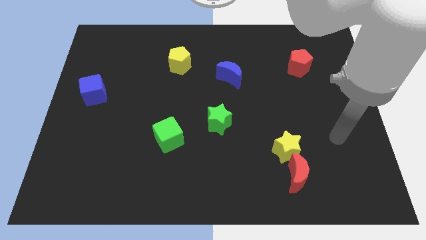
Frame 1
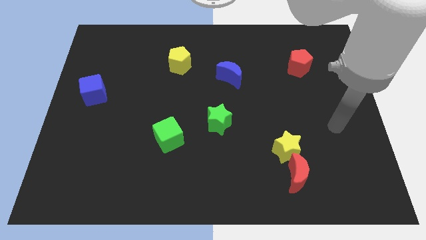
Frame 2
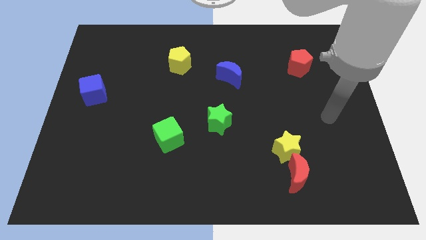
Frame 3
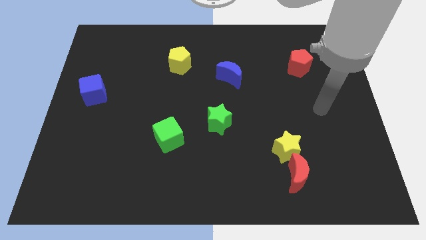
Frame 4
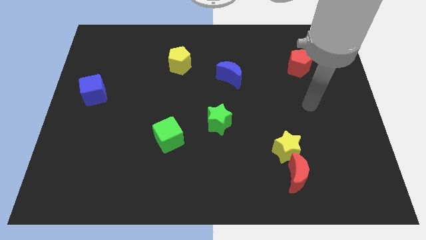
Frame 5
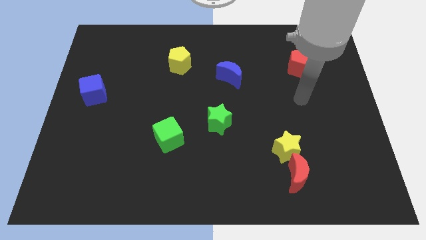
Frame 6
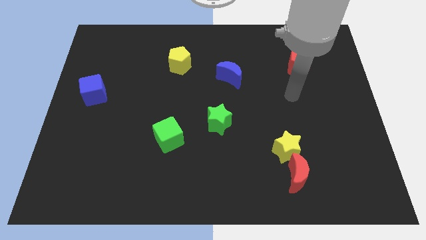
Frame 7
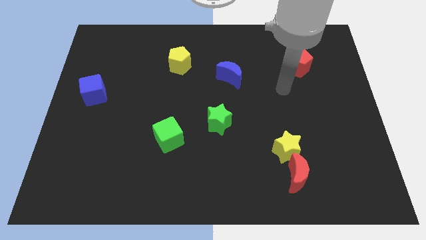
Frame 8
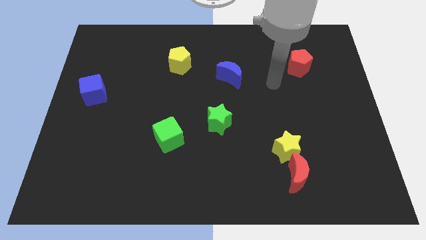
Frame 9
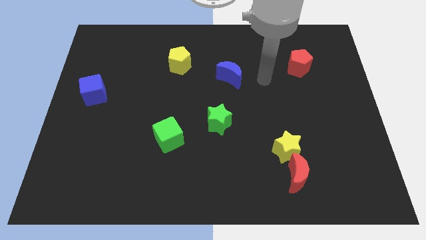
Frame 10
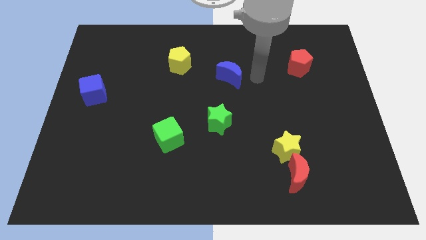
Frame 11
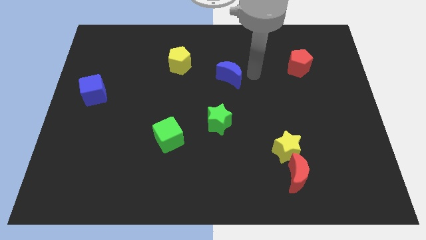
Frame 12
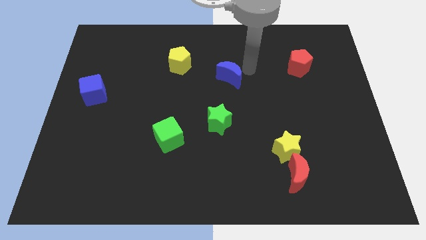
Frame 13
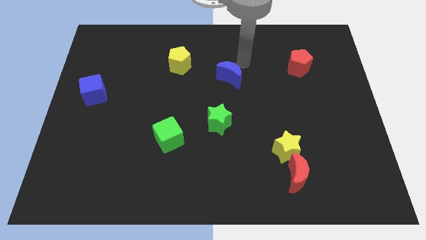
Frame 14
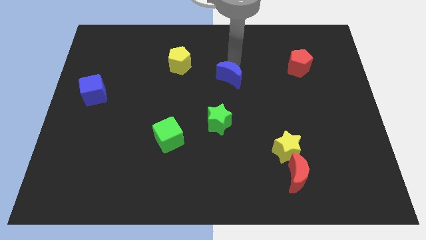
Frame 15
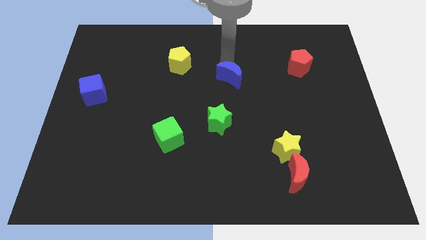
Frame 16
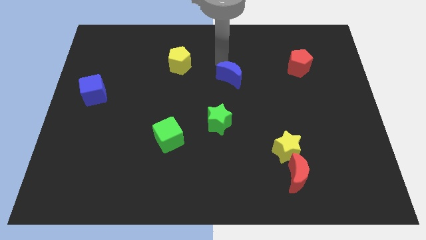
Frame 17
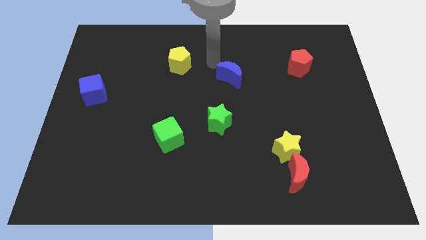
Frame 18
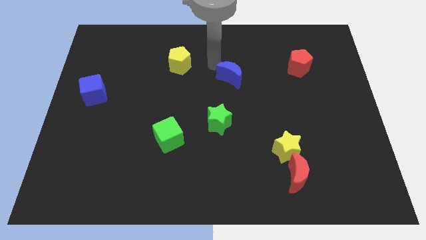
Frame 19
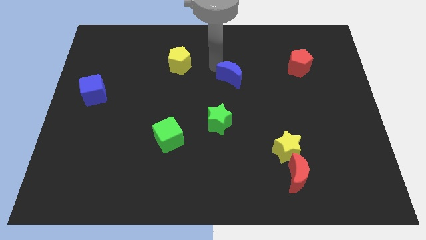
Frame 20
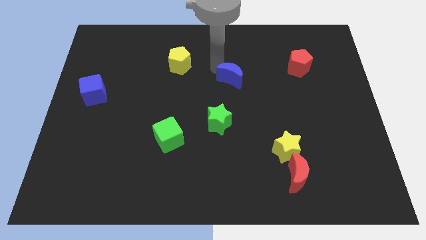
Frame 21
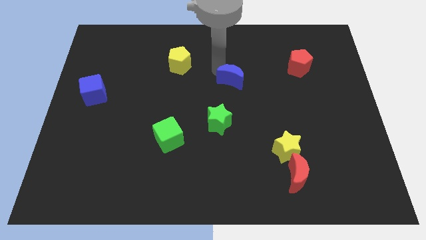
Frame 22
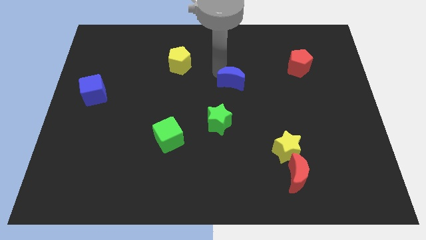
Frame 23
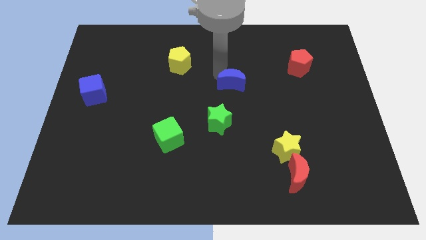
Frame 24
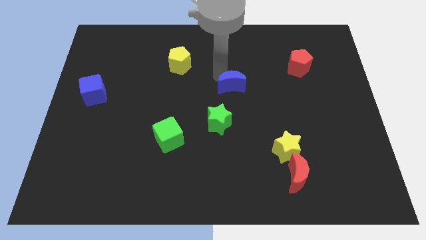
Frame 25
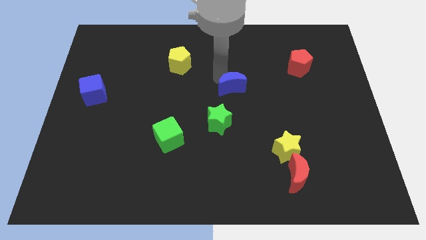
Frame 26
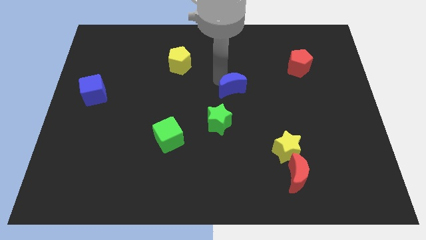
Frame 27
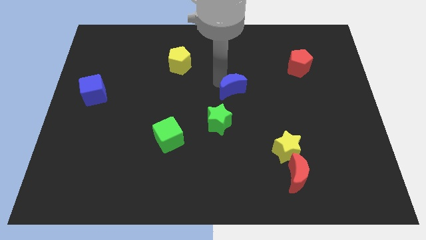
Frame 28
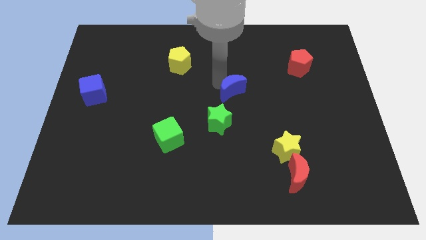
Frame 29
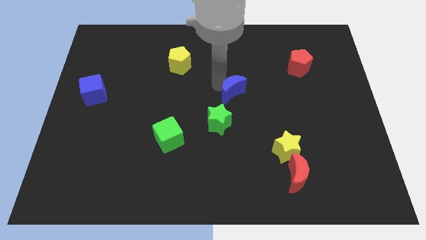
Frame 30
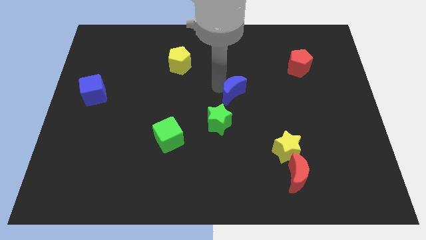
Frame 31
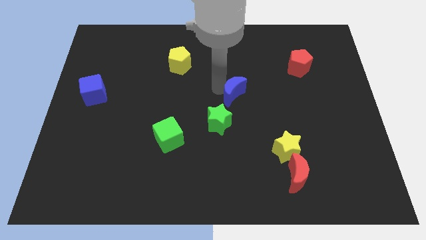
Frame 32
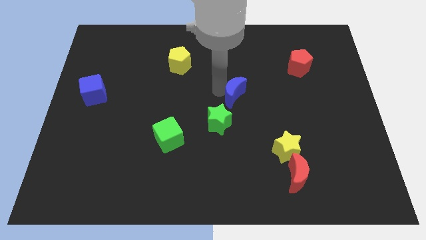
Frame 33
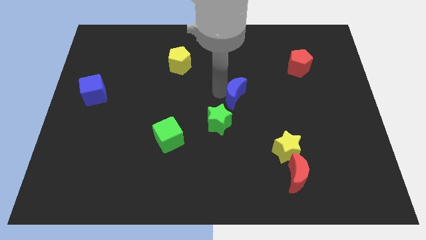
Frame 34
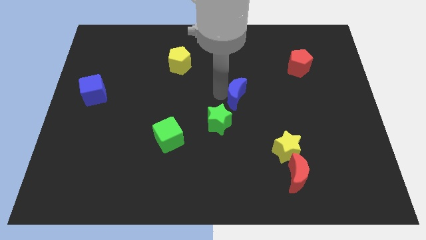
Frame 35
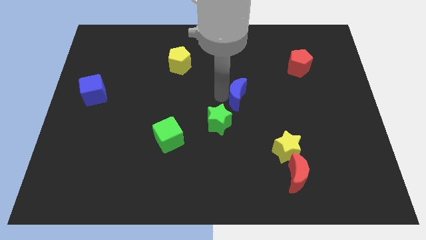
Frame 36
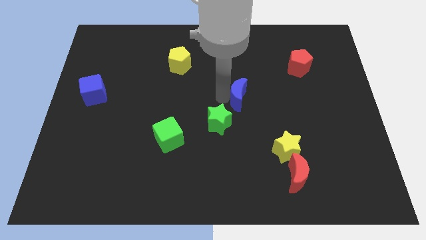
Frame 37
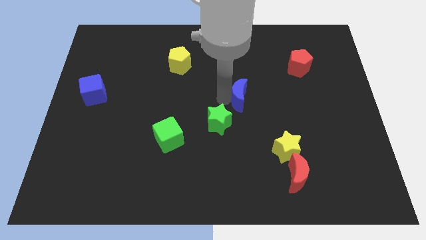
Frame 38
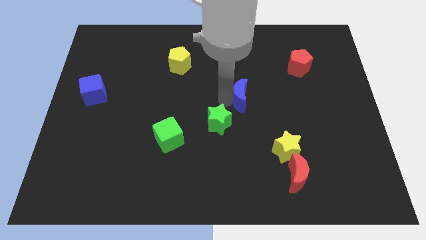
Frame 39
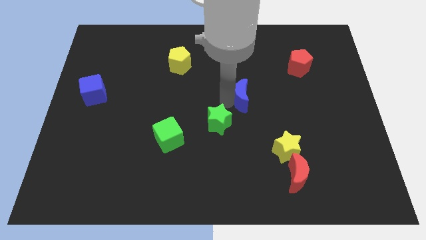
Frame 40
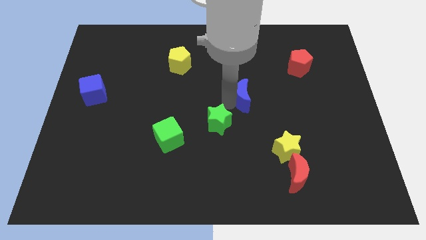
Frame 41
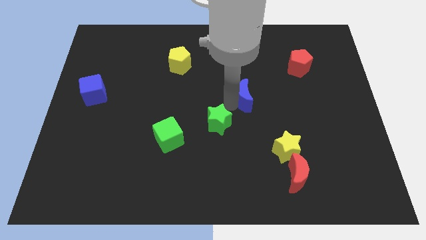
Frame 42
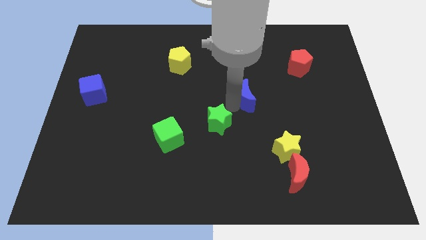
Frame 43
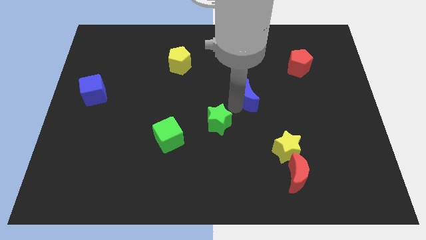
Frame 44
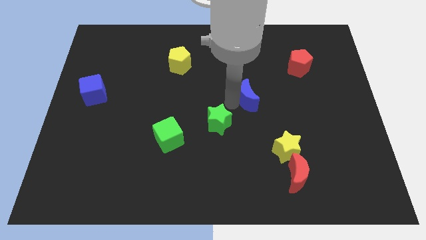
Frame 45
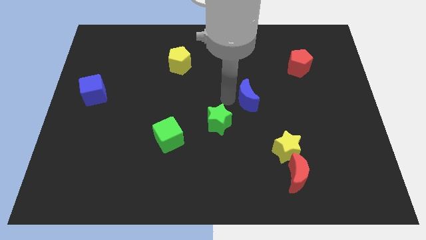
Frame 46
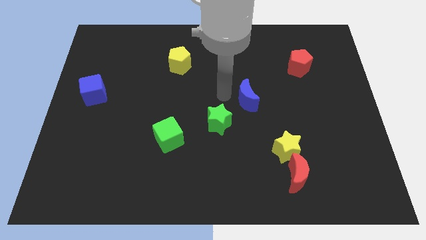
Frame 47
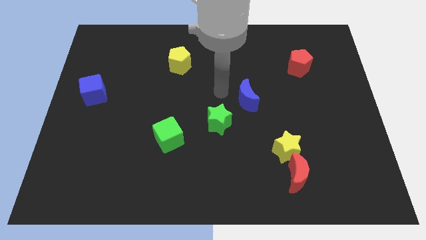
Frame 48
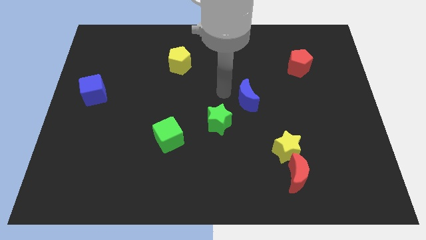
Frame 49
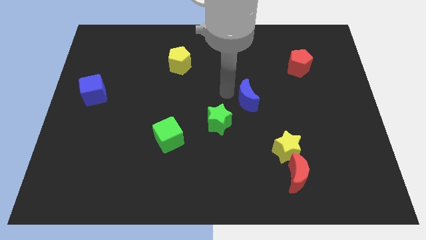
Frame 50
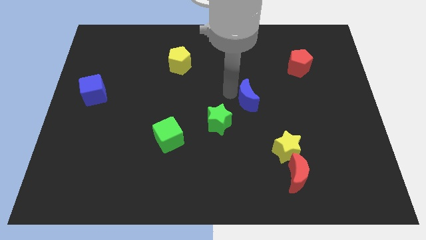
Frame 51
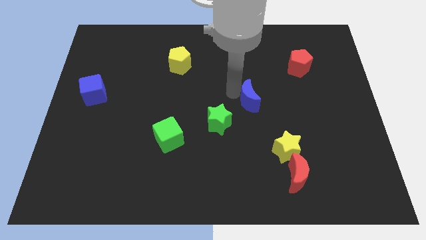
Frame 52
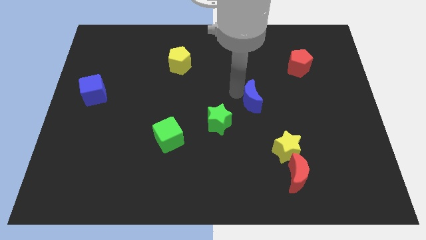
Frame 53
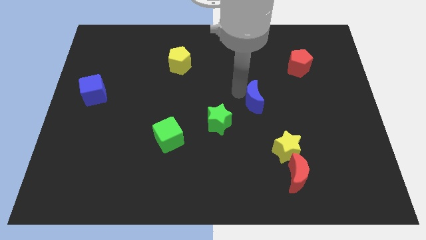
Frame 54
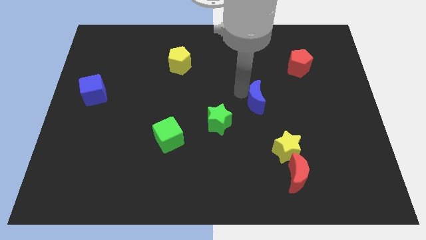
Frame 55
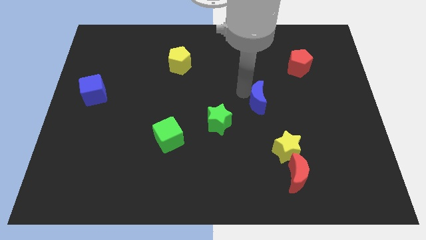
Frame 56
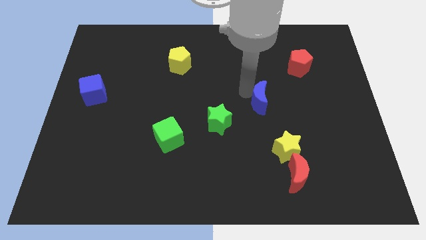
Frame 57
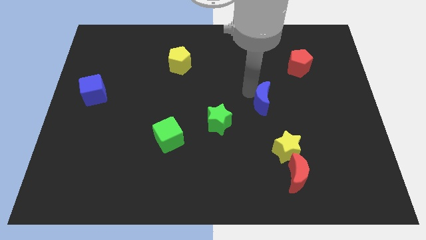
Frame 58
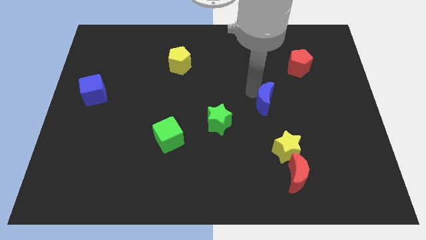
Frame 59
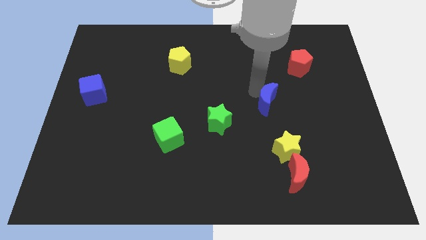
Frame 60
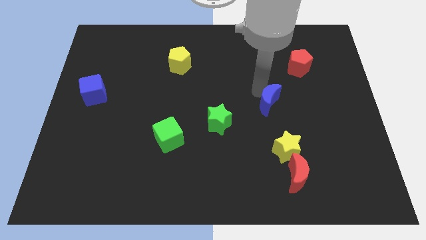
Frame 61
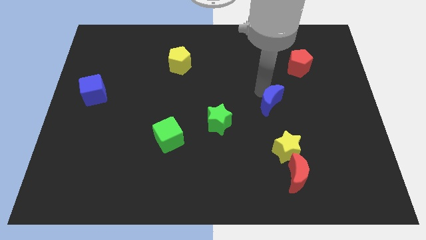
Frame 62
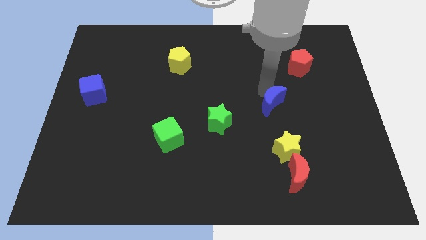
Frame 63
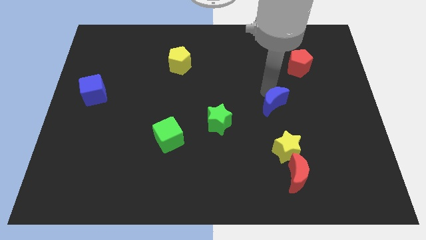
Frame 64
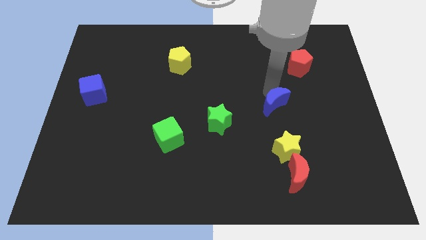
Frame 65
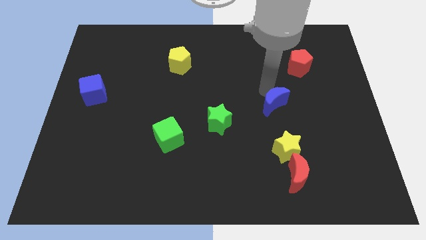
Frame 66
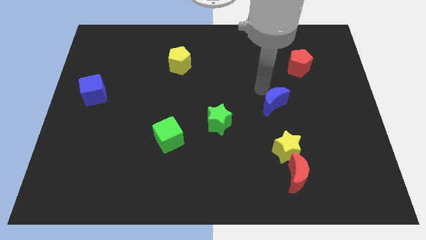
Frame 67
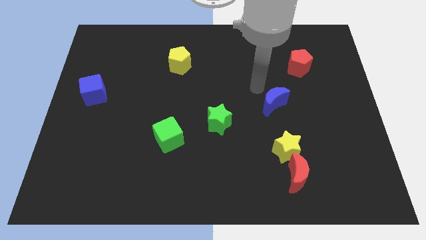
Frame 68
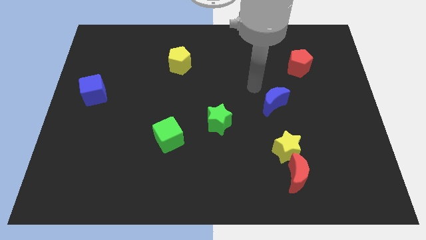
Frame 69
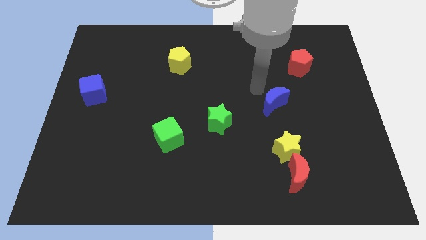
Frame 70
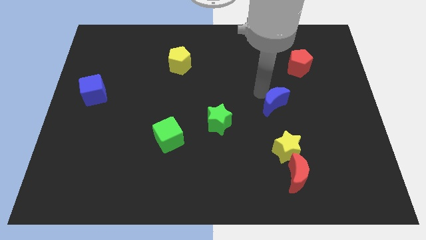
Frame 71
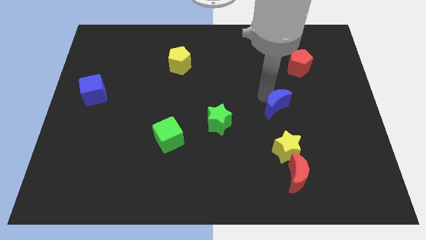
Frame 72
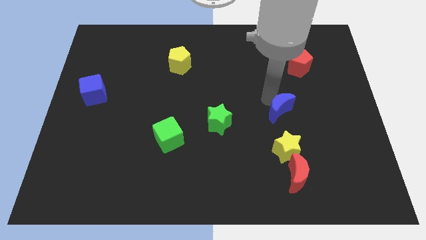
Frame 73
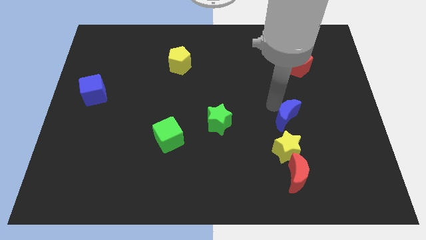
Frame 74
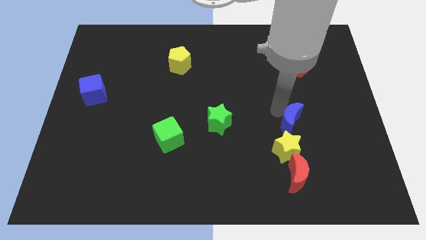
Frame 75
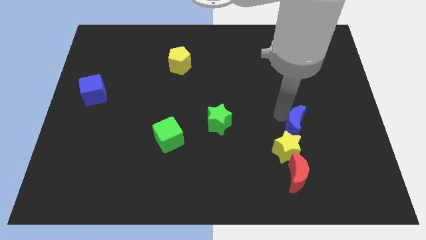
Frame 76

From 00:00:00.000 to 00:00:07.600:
slide the blue moon downwards and right

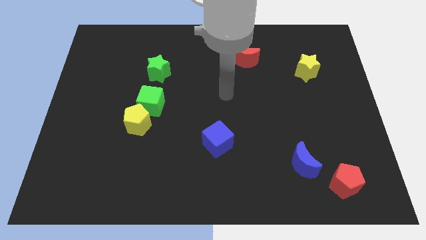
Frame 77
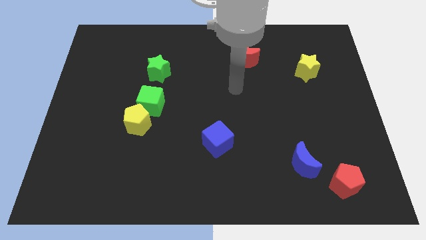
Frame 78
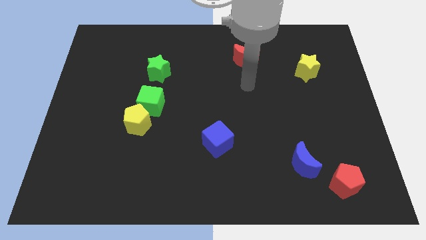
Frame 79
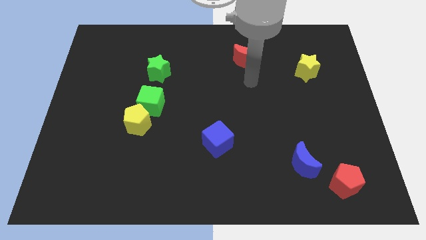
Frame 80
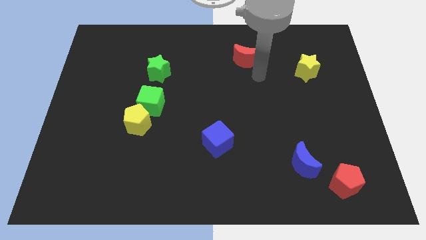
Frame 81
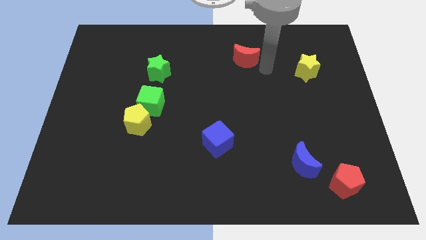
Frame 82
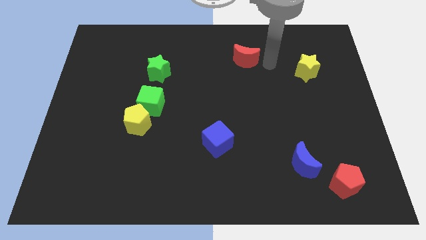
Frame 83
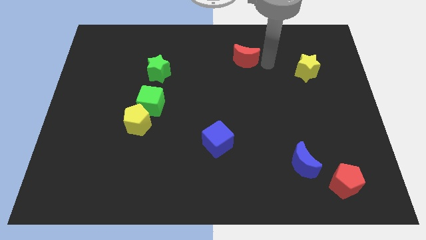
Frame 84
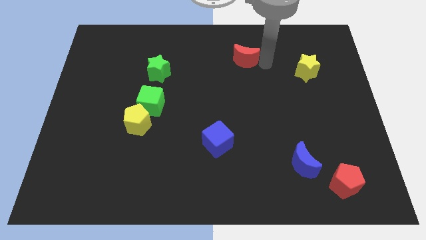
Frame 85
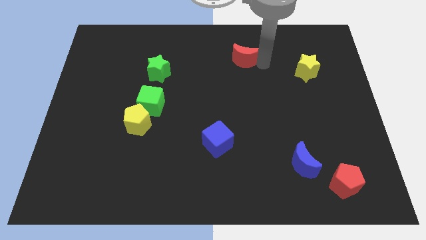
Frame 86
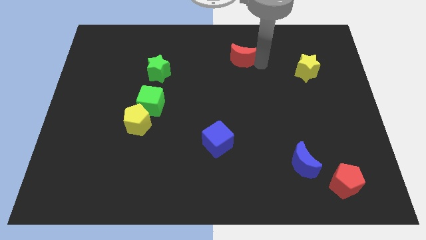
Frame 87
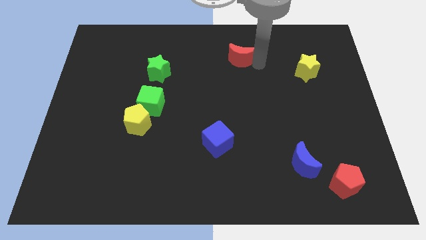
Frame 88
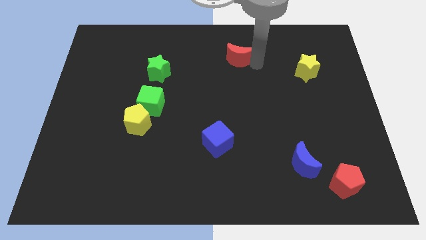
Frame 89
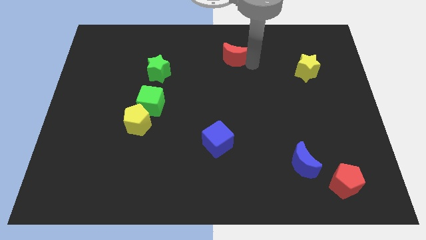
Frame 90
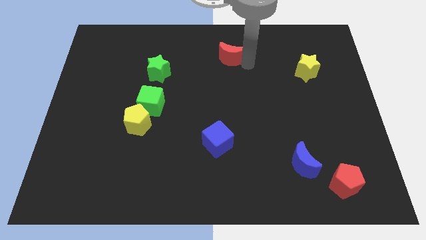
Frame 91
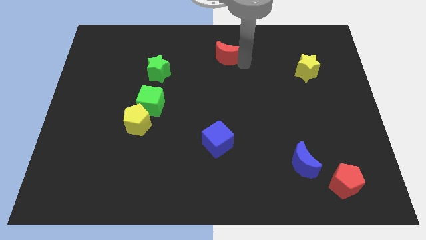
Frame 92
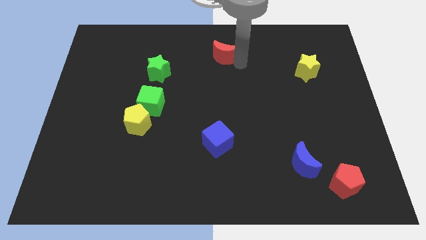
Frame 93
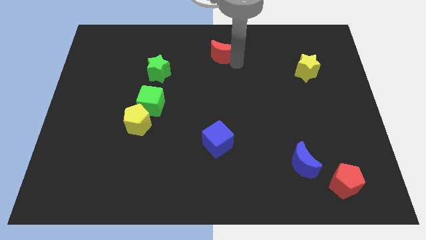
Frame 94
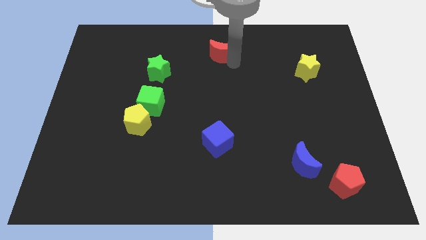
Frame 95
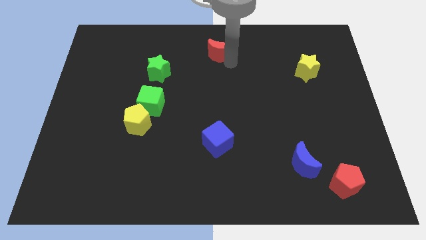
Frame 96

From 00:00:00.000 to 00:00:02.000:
move the red moon a bit to the left
